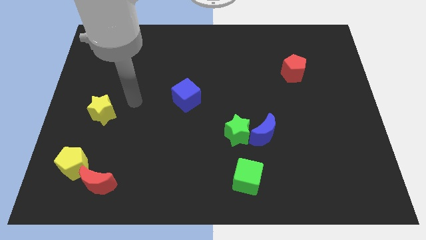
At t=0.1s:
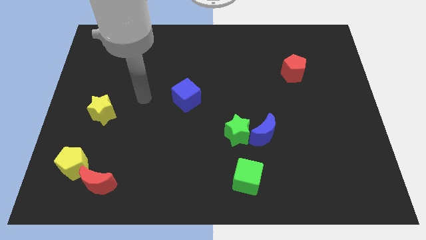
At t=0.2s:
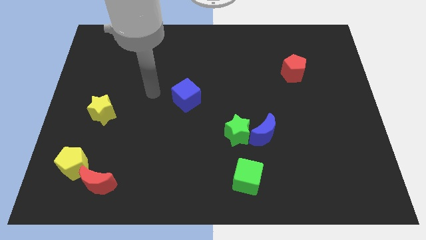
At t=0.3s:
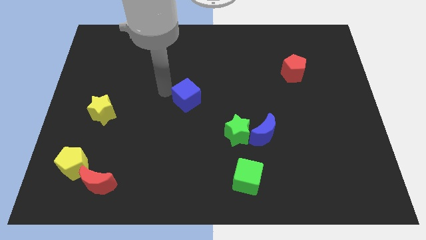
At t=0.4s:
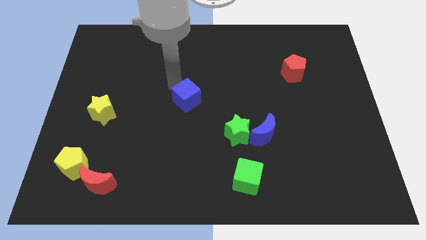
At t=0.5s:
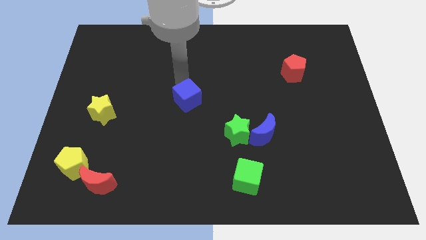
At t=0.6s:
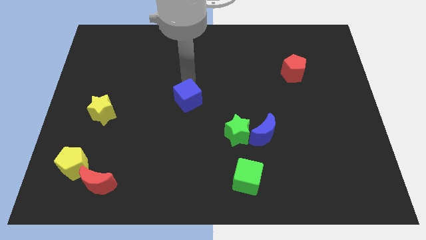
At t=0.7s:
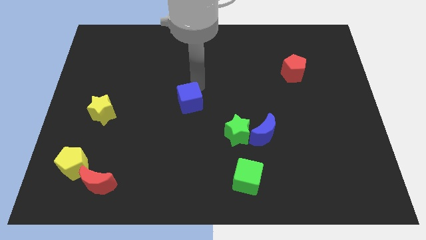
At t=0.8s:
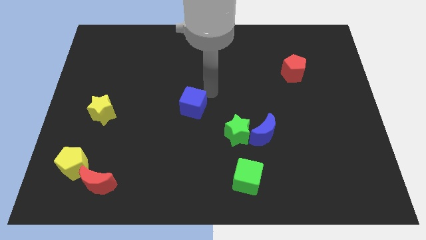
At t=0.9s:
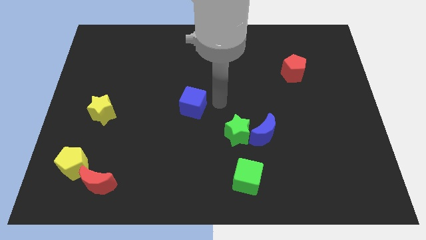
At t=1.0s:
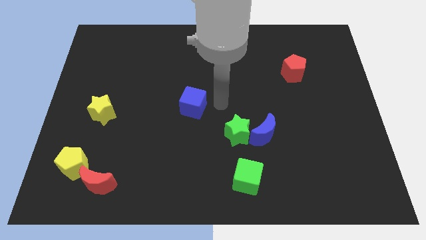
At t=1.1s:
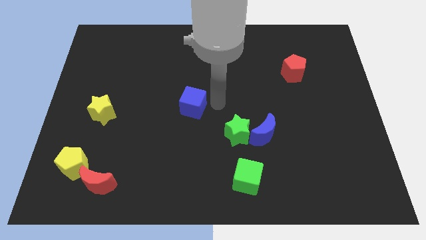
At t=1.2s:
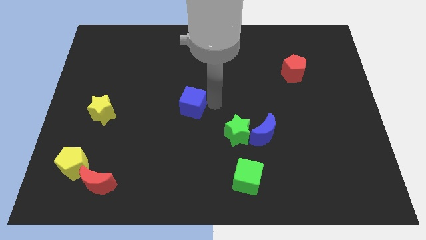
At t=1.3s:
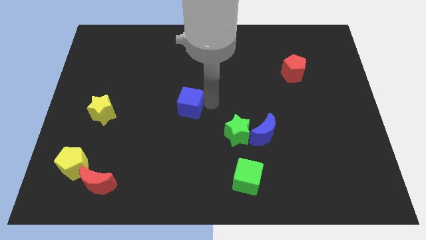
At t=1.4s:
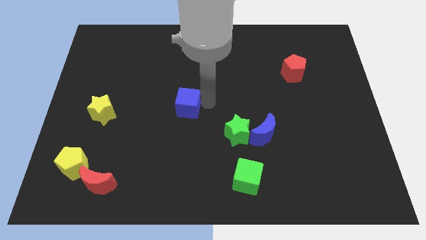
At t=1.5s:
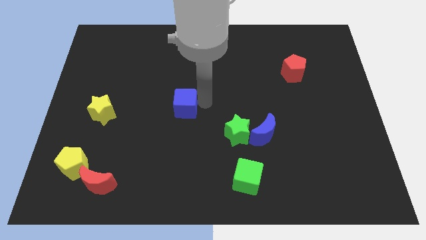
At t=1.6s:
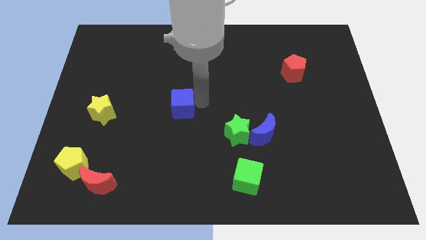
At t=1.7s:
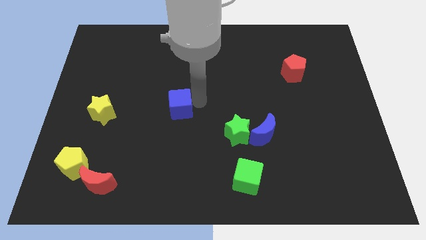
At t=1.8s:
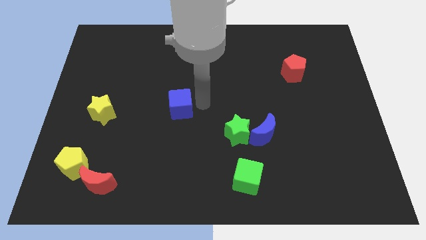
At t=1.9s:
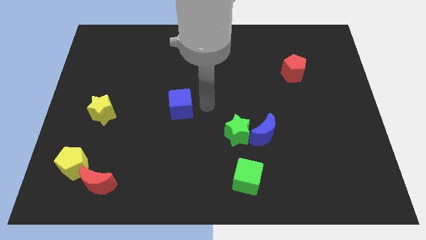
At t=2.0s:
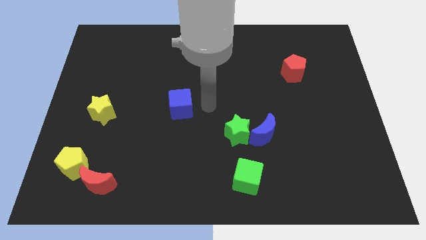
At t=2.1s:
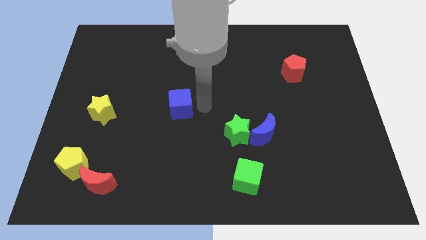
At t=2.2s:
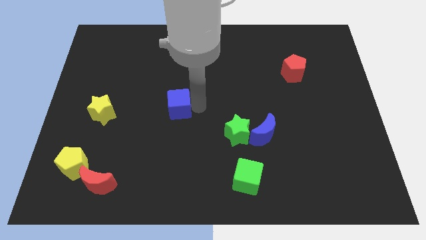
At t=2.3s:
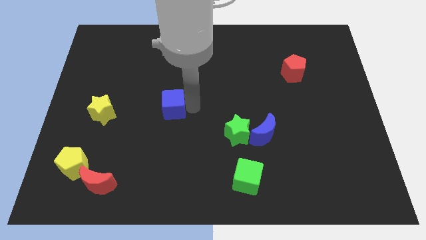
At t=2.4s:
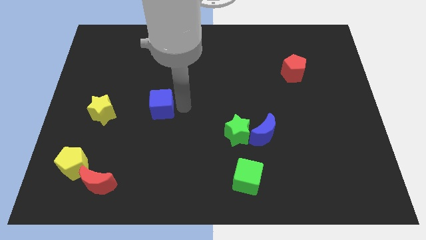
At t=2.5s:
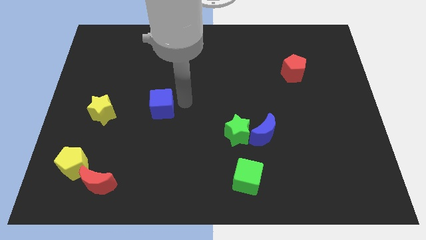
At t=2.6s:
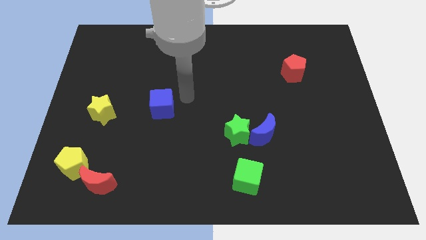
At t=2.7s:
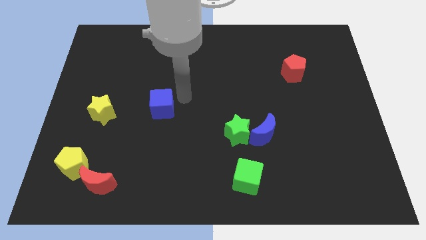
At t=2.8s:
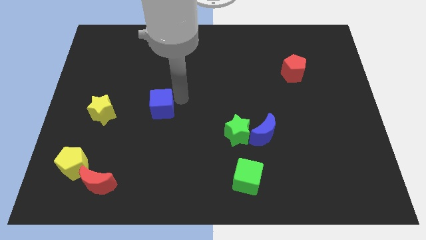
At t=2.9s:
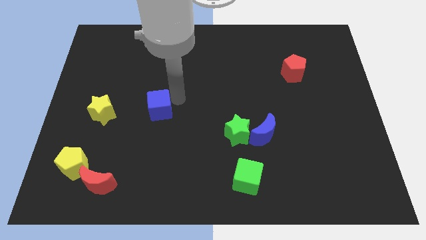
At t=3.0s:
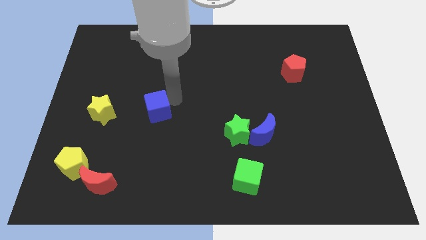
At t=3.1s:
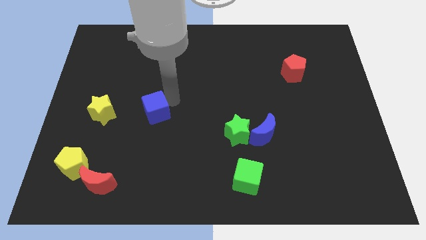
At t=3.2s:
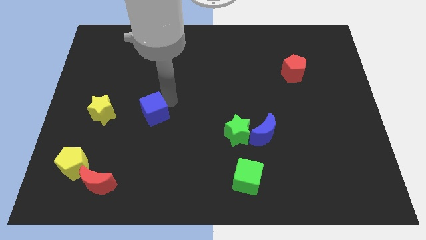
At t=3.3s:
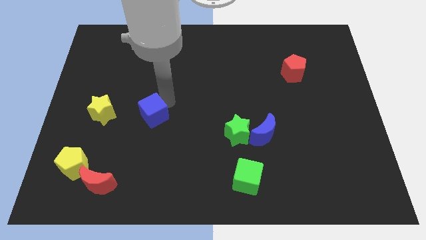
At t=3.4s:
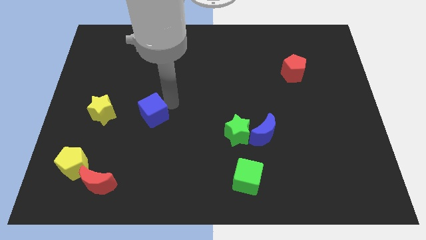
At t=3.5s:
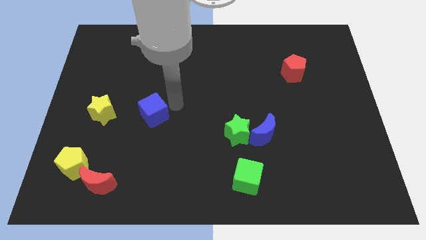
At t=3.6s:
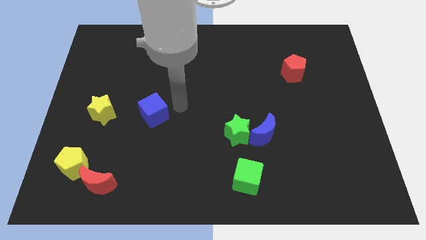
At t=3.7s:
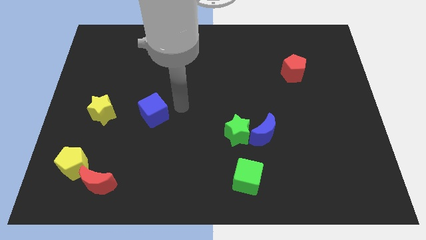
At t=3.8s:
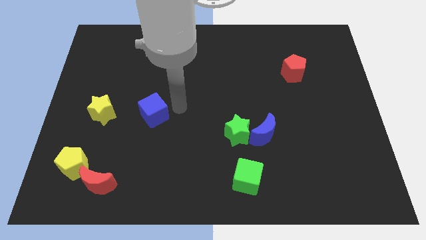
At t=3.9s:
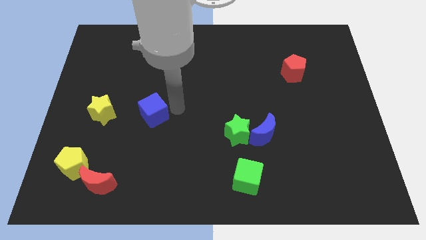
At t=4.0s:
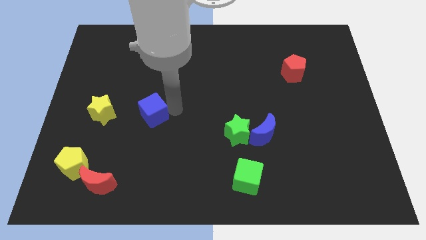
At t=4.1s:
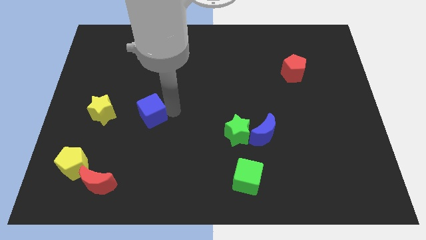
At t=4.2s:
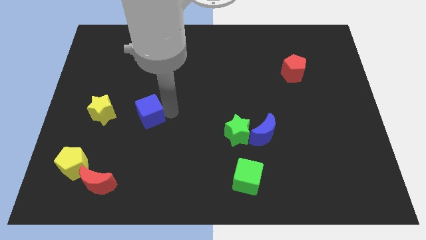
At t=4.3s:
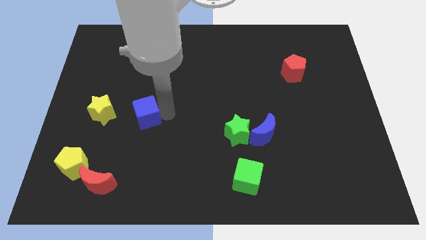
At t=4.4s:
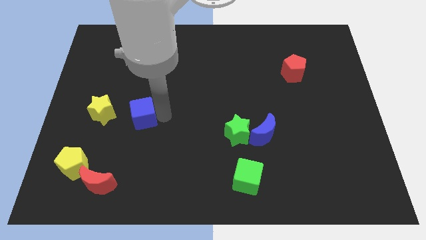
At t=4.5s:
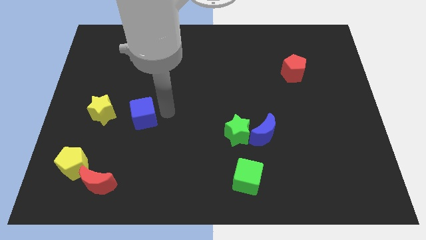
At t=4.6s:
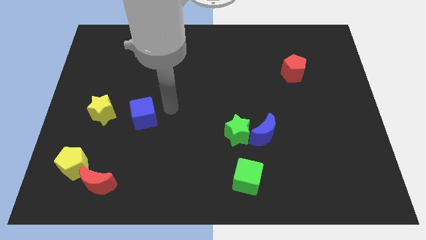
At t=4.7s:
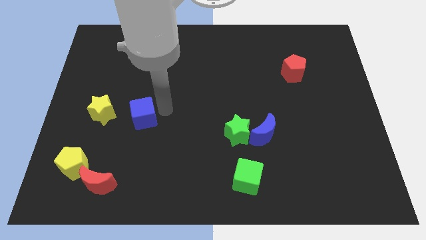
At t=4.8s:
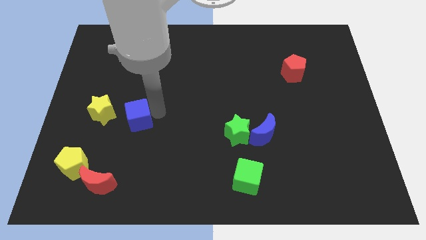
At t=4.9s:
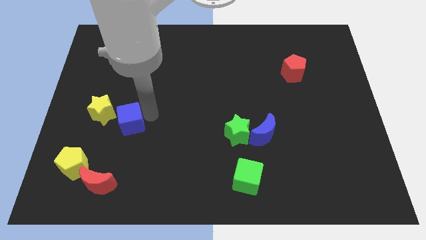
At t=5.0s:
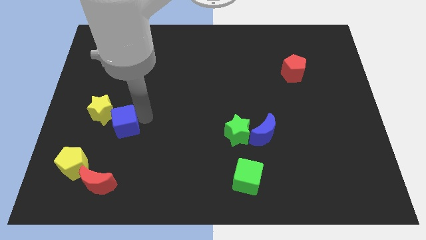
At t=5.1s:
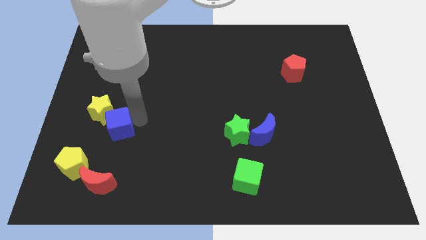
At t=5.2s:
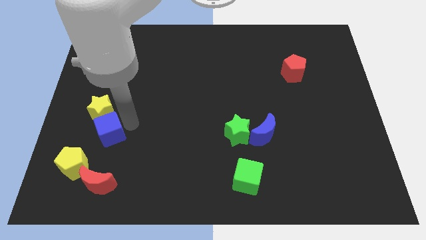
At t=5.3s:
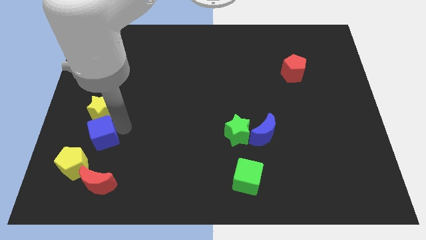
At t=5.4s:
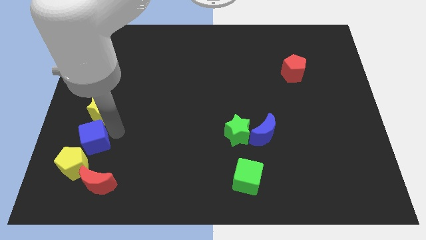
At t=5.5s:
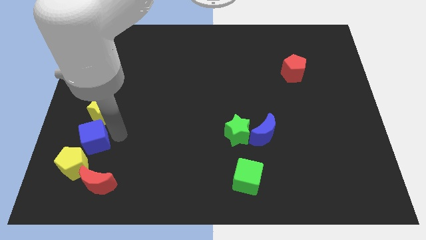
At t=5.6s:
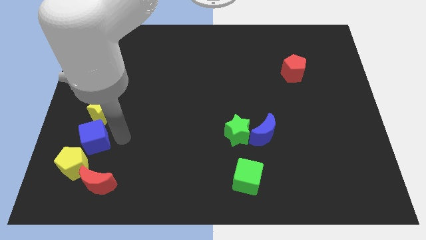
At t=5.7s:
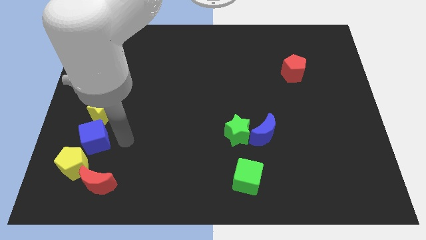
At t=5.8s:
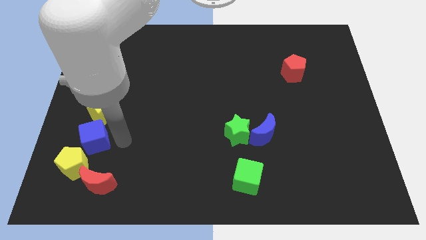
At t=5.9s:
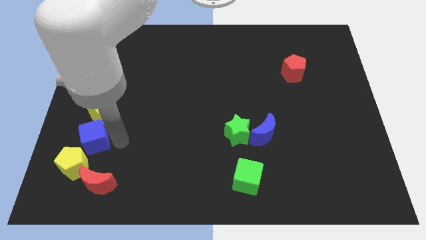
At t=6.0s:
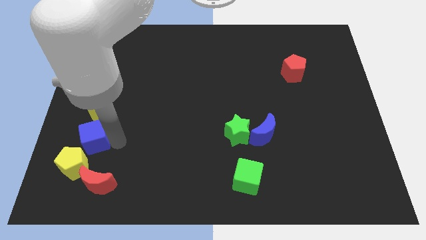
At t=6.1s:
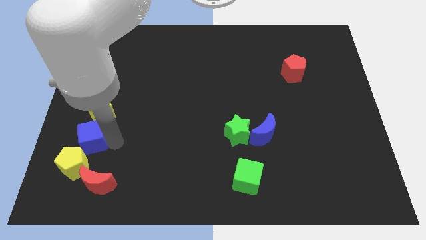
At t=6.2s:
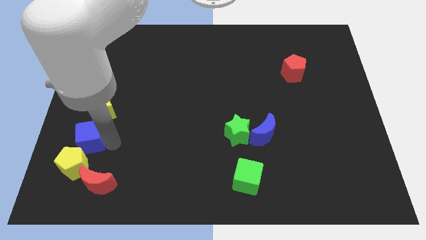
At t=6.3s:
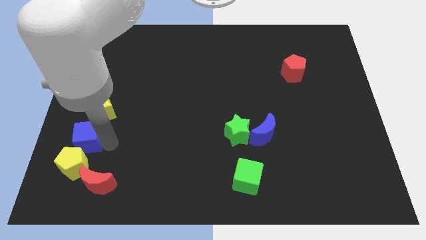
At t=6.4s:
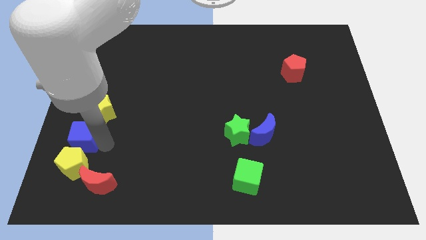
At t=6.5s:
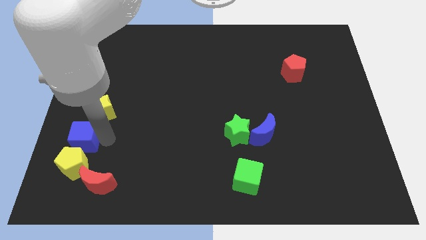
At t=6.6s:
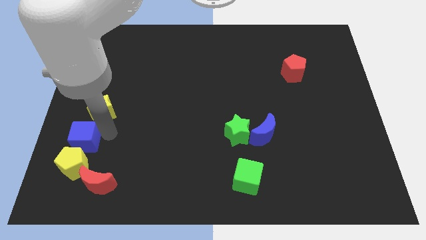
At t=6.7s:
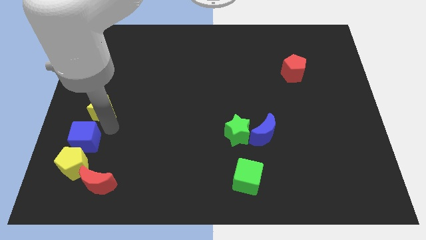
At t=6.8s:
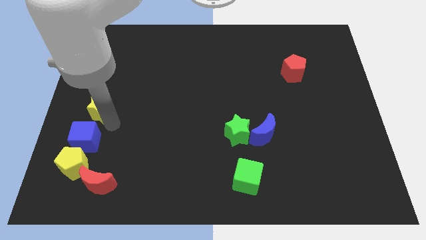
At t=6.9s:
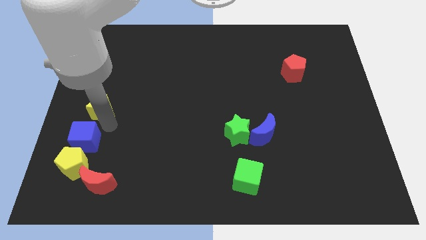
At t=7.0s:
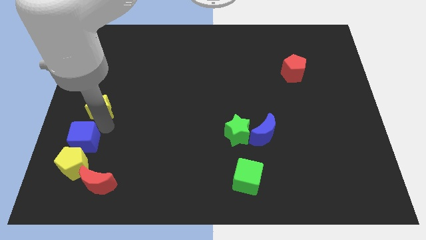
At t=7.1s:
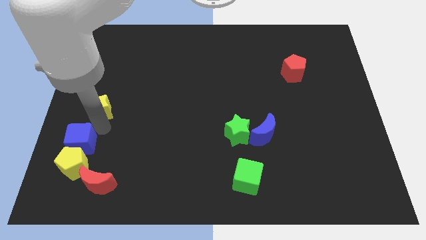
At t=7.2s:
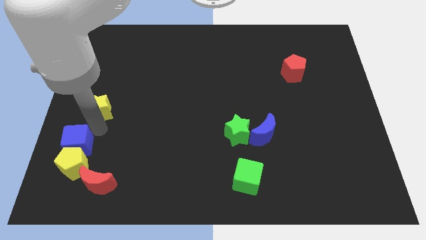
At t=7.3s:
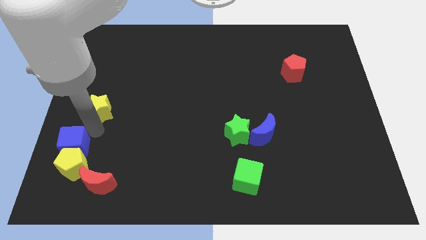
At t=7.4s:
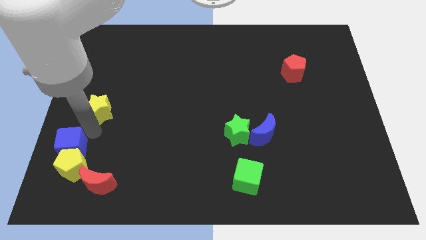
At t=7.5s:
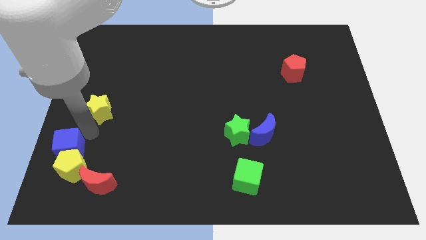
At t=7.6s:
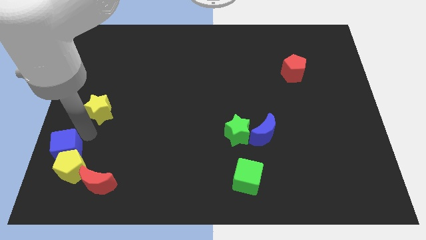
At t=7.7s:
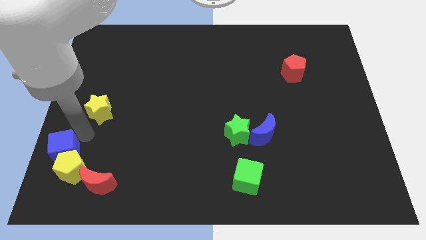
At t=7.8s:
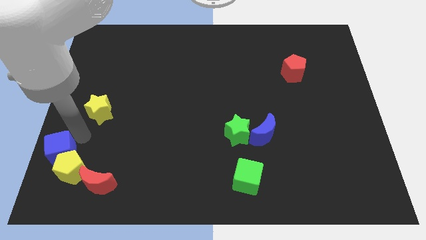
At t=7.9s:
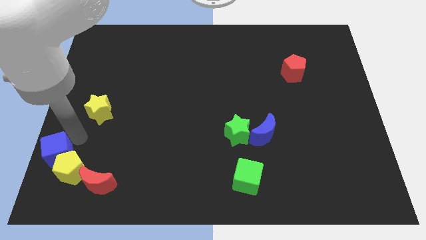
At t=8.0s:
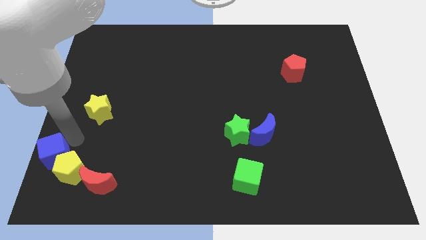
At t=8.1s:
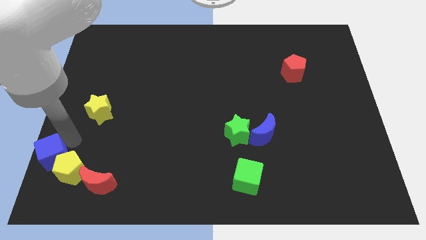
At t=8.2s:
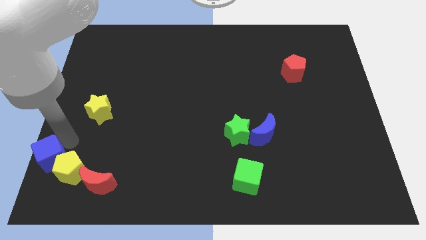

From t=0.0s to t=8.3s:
move the blue cube to the lower left corner
